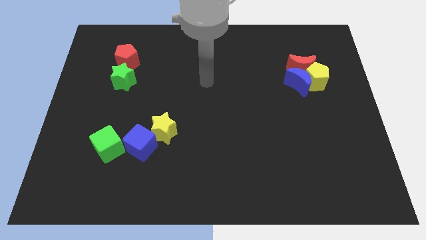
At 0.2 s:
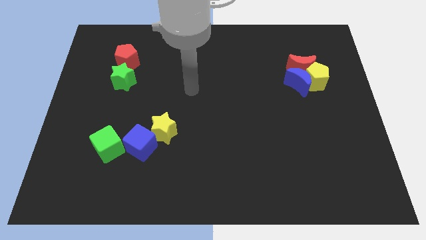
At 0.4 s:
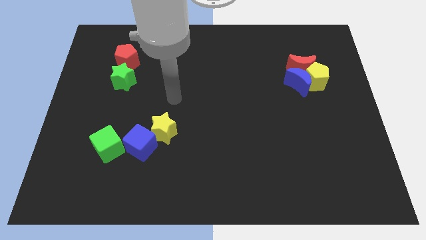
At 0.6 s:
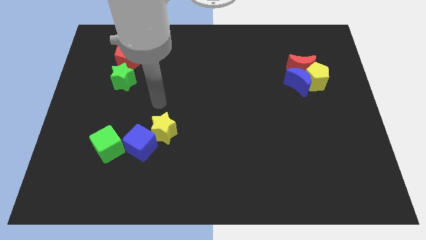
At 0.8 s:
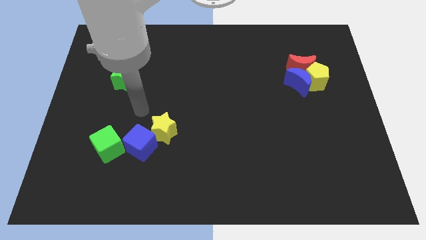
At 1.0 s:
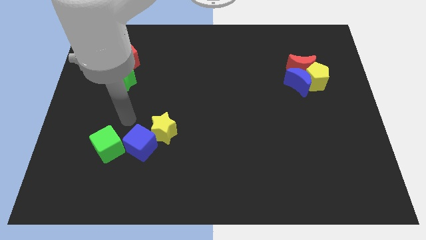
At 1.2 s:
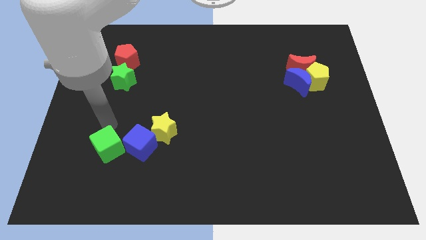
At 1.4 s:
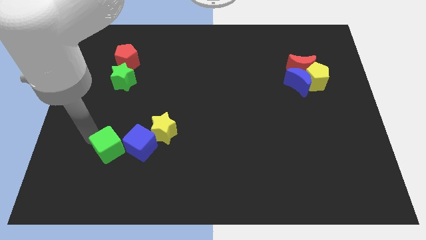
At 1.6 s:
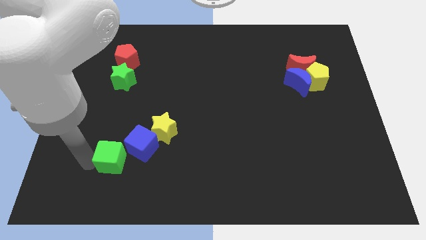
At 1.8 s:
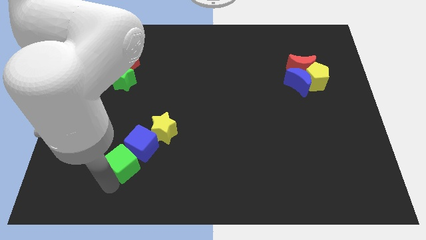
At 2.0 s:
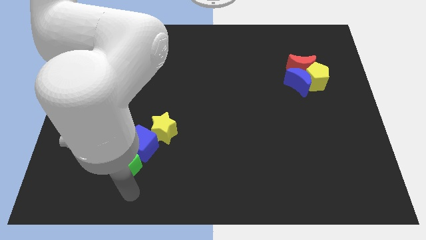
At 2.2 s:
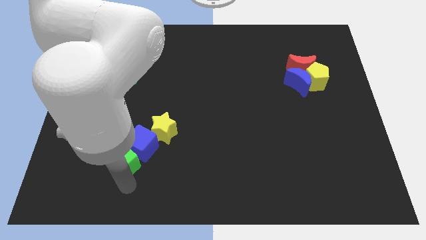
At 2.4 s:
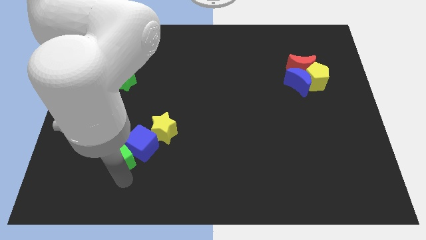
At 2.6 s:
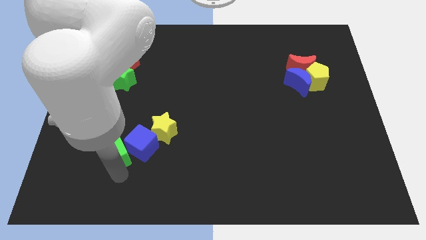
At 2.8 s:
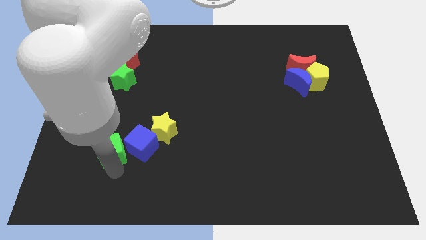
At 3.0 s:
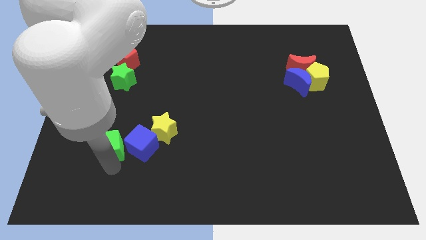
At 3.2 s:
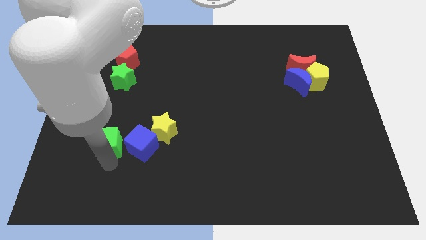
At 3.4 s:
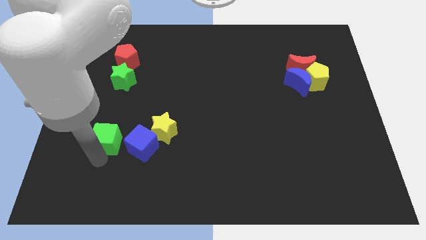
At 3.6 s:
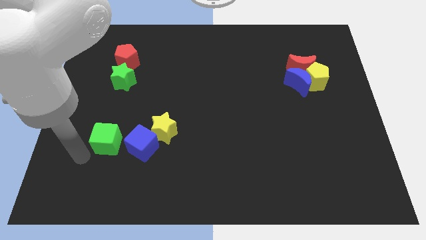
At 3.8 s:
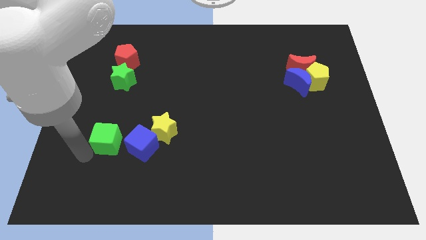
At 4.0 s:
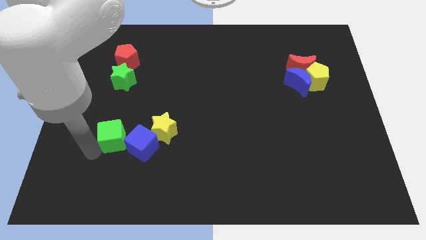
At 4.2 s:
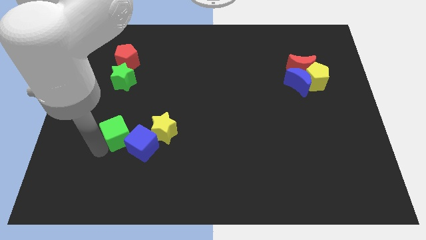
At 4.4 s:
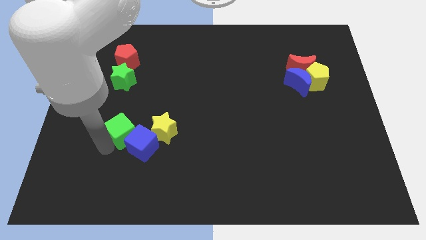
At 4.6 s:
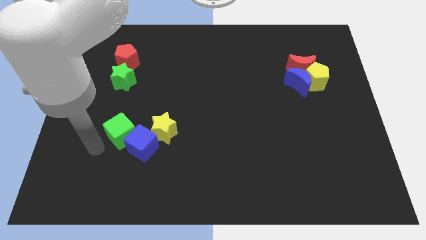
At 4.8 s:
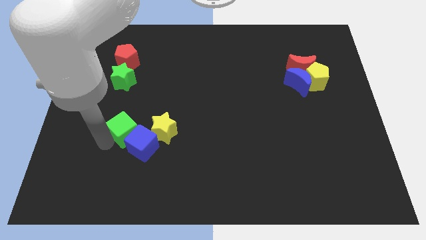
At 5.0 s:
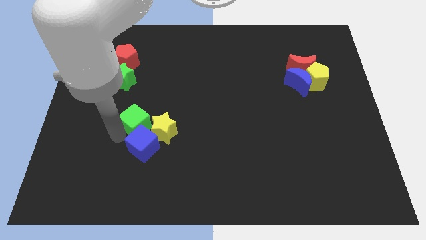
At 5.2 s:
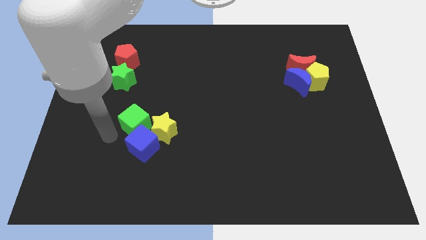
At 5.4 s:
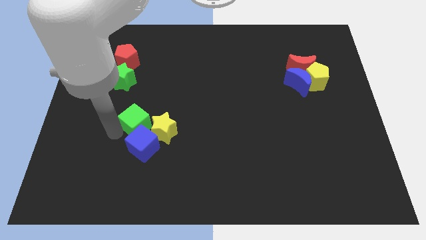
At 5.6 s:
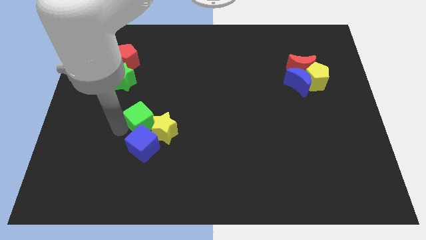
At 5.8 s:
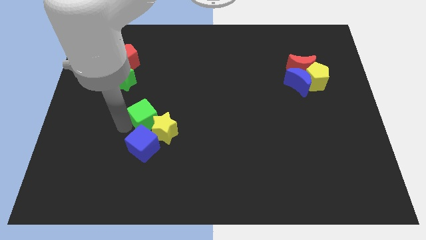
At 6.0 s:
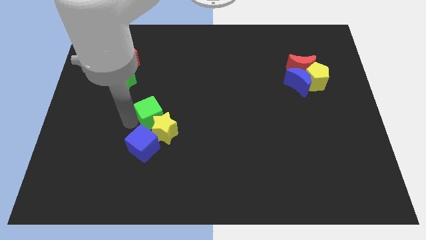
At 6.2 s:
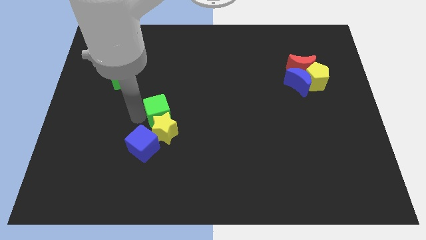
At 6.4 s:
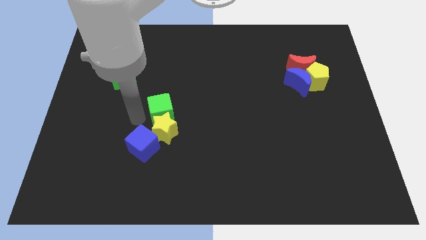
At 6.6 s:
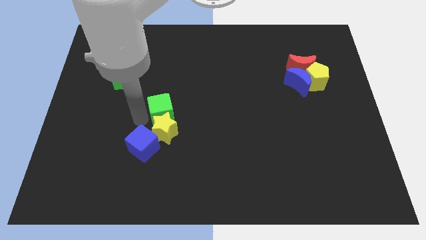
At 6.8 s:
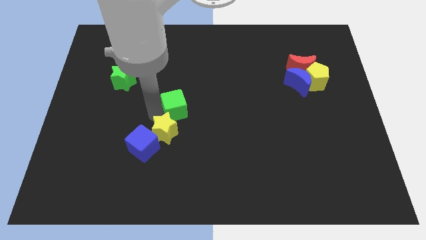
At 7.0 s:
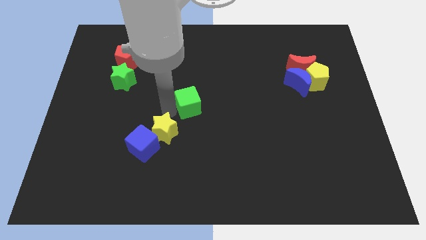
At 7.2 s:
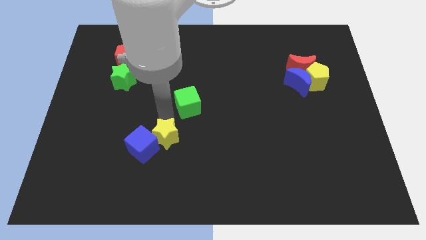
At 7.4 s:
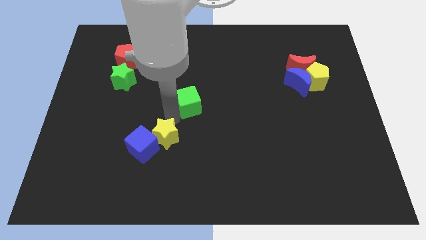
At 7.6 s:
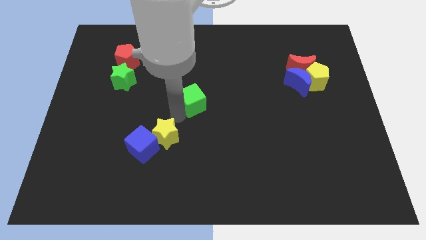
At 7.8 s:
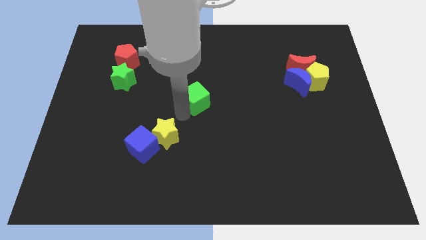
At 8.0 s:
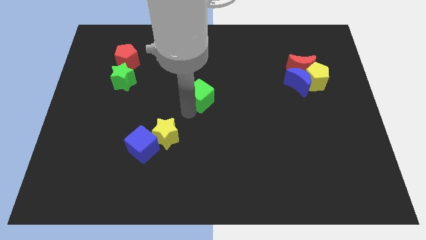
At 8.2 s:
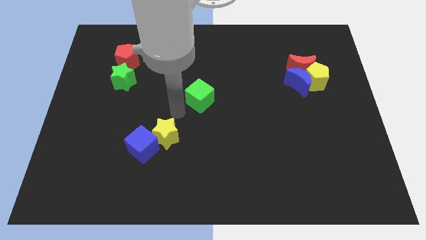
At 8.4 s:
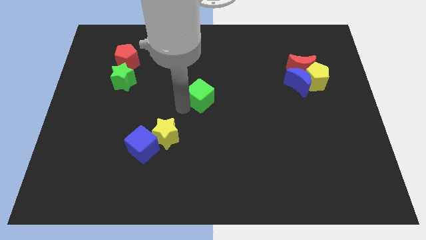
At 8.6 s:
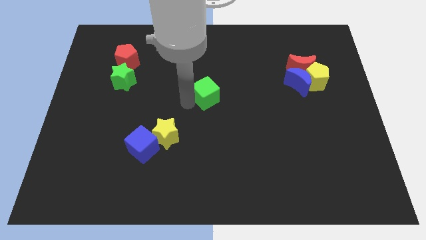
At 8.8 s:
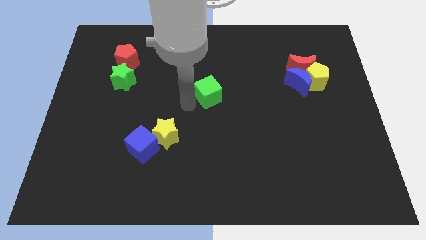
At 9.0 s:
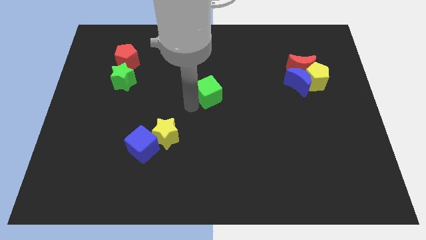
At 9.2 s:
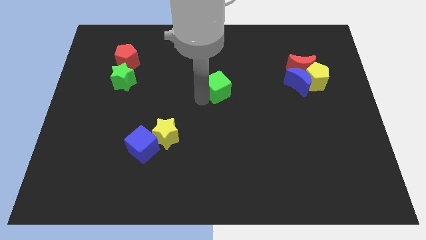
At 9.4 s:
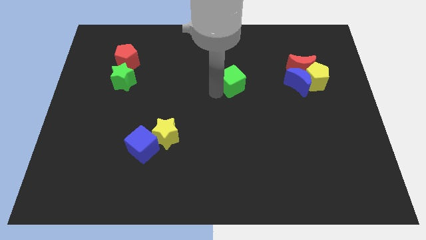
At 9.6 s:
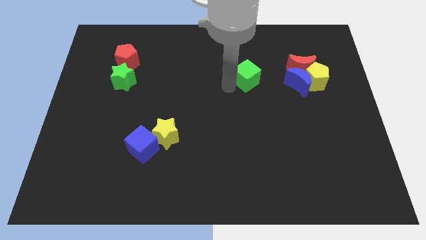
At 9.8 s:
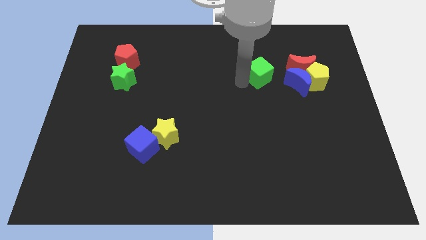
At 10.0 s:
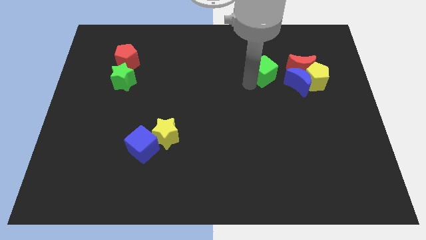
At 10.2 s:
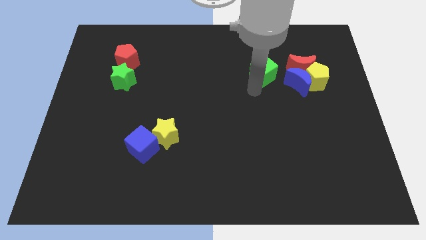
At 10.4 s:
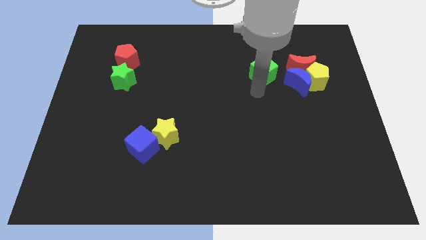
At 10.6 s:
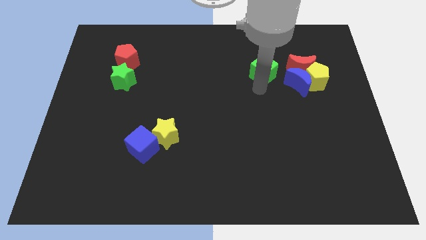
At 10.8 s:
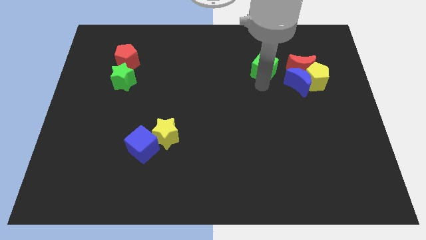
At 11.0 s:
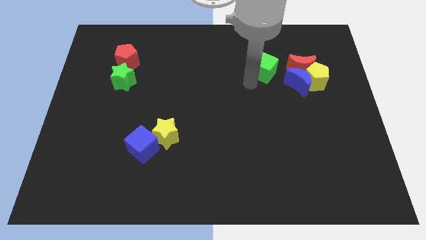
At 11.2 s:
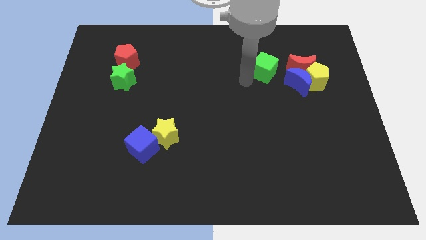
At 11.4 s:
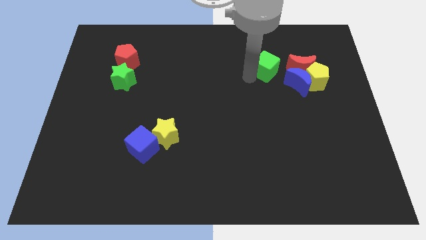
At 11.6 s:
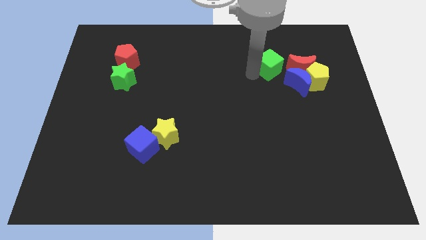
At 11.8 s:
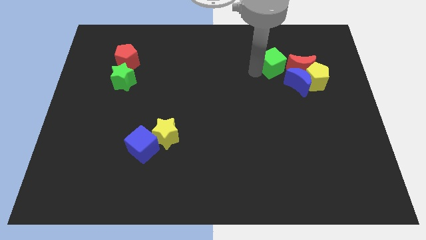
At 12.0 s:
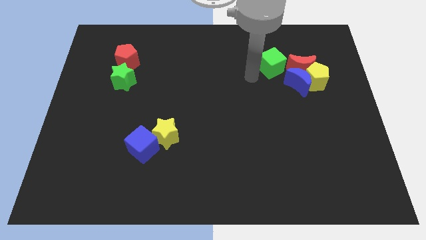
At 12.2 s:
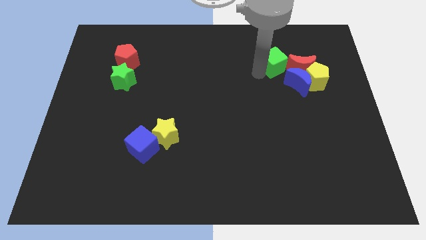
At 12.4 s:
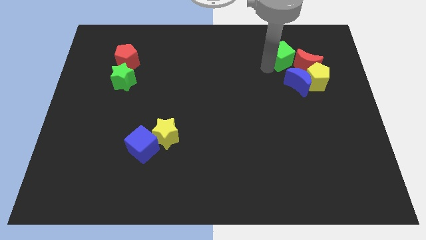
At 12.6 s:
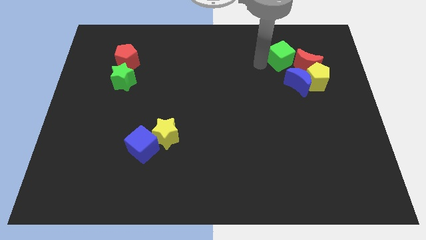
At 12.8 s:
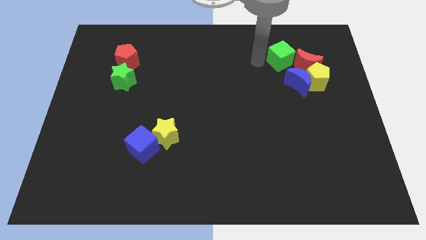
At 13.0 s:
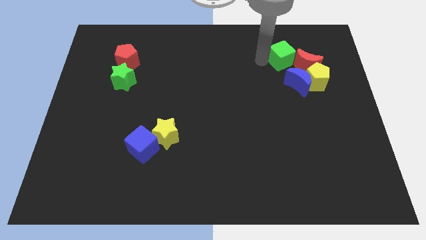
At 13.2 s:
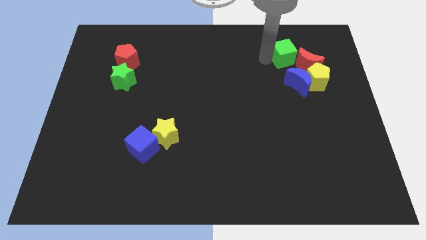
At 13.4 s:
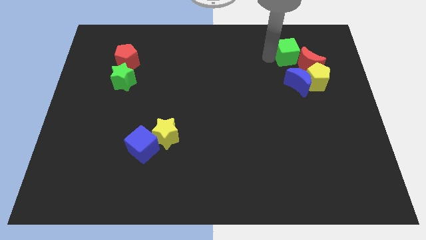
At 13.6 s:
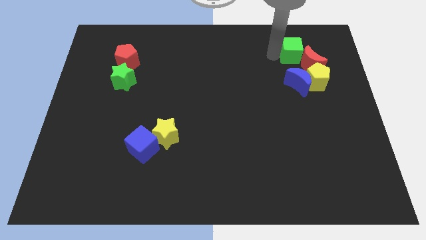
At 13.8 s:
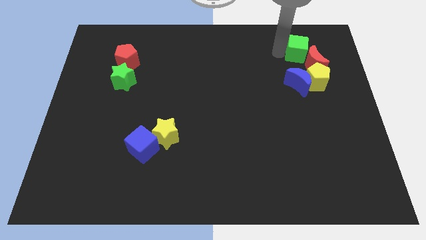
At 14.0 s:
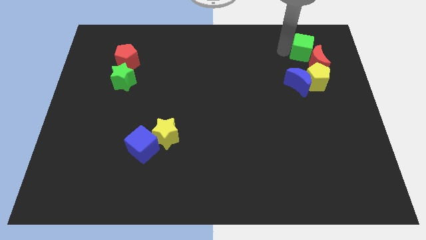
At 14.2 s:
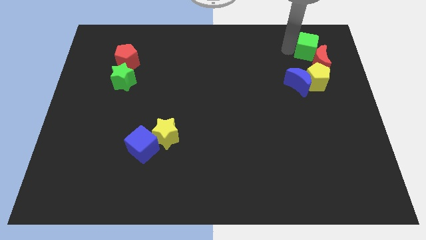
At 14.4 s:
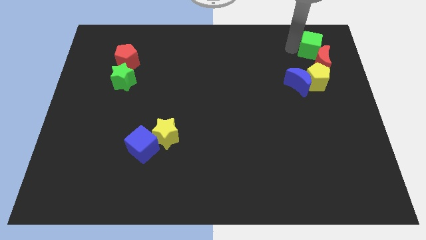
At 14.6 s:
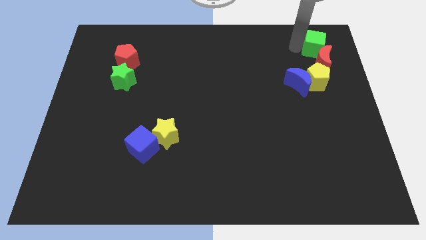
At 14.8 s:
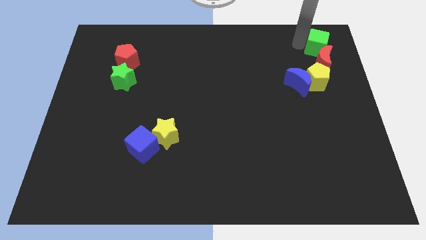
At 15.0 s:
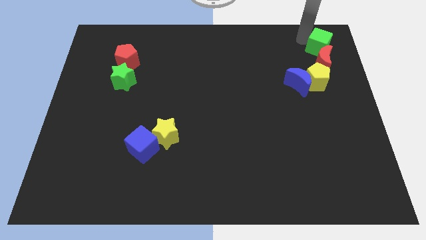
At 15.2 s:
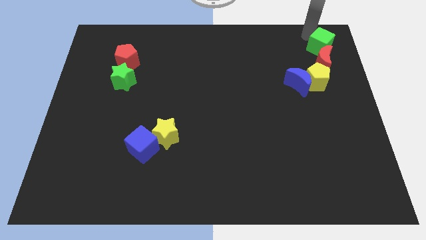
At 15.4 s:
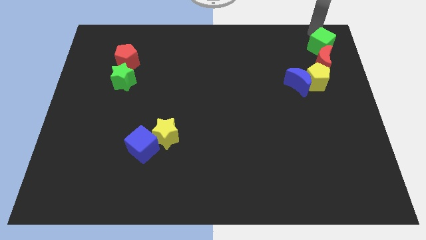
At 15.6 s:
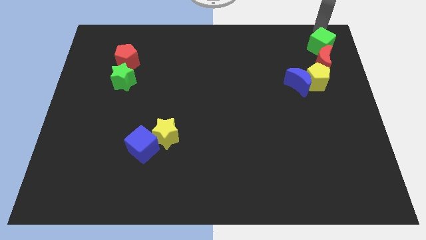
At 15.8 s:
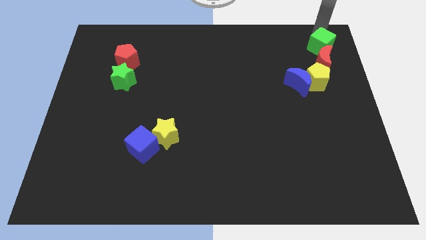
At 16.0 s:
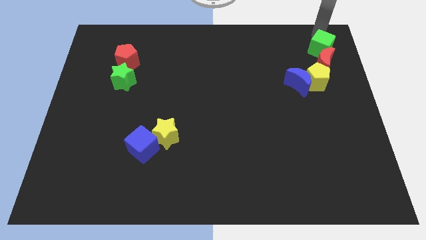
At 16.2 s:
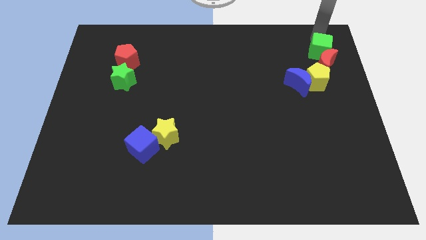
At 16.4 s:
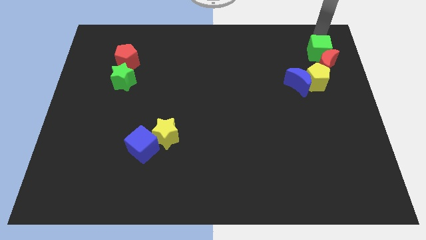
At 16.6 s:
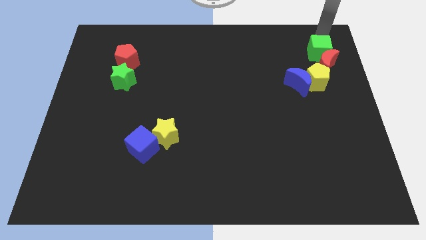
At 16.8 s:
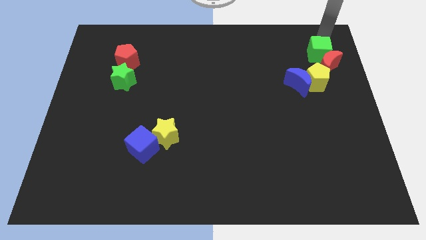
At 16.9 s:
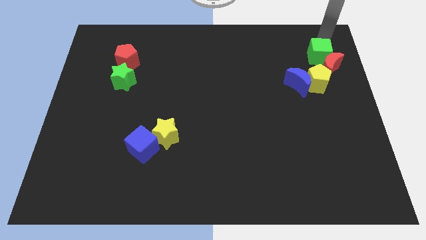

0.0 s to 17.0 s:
push the green cube to the top right side of the blue moon
